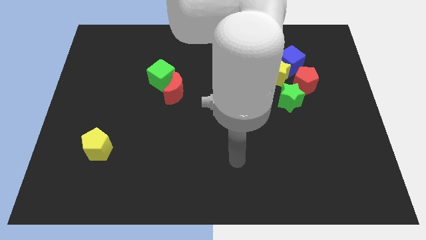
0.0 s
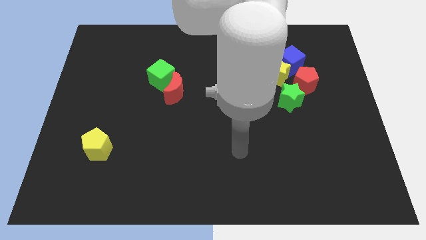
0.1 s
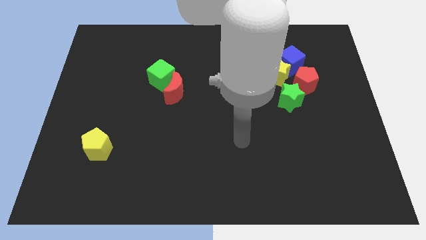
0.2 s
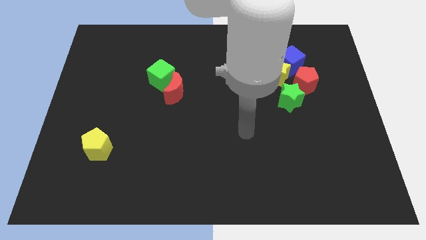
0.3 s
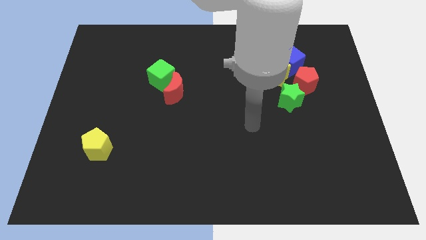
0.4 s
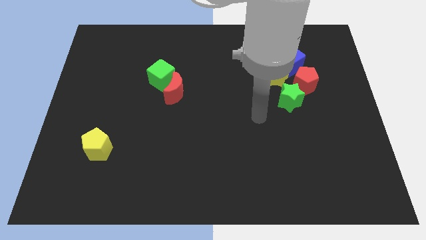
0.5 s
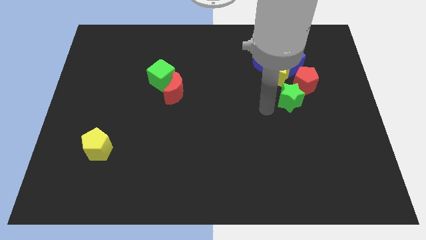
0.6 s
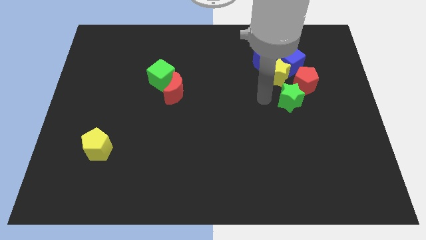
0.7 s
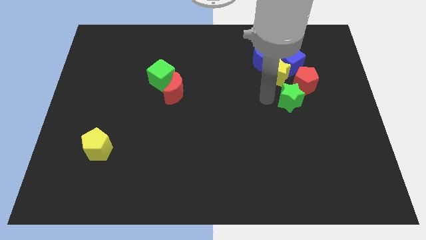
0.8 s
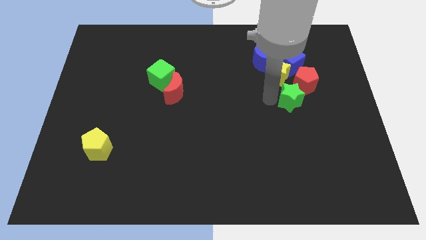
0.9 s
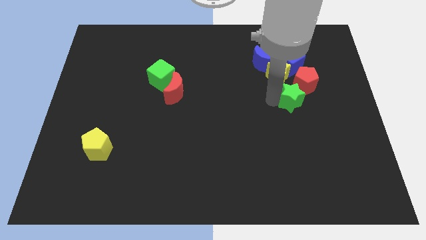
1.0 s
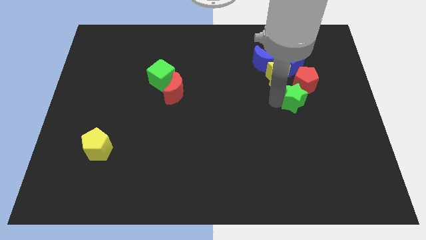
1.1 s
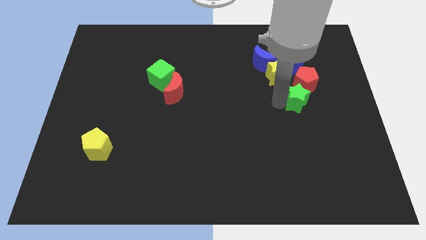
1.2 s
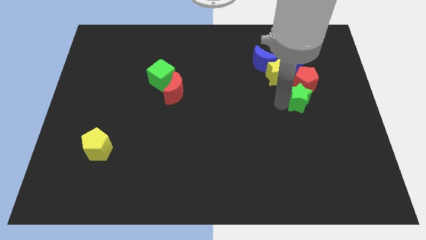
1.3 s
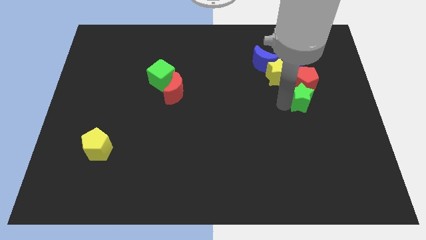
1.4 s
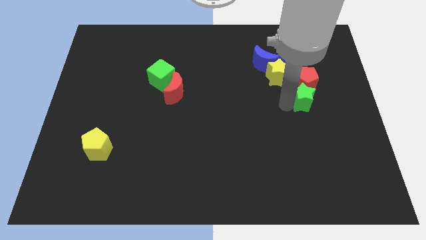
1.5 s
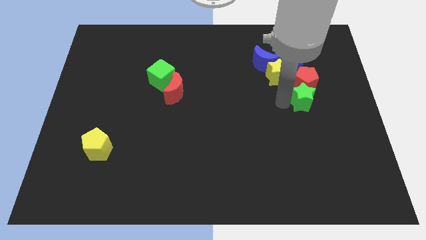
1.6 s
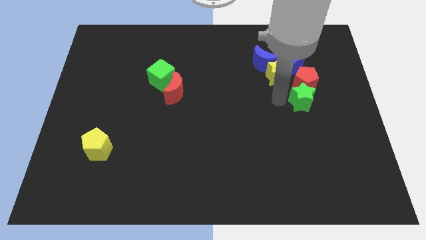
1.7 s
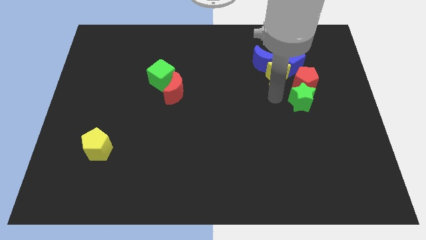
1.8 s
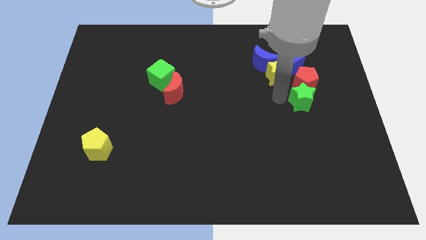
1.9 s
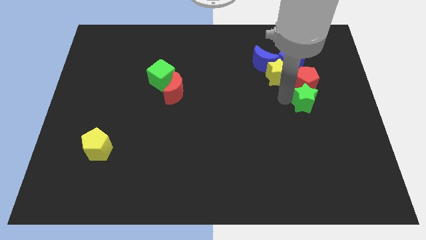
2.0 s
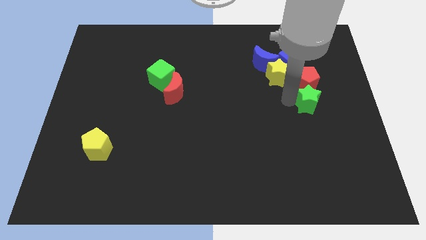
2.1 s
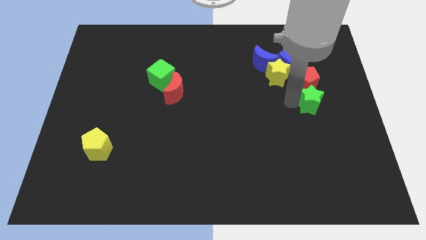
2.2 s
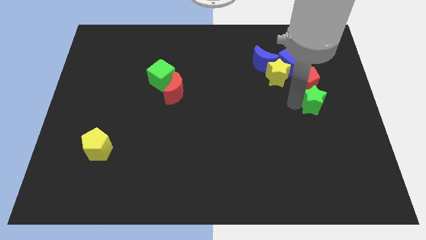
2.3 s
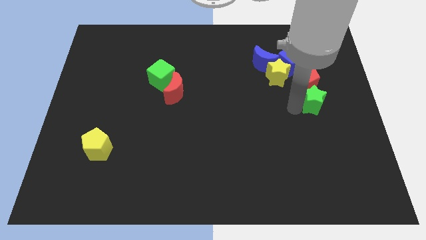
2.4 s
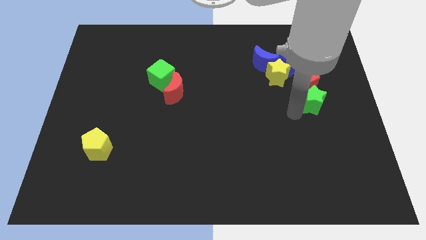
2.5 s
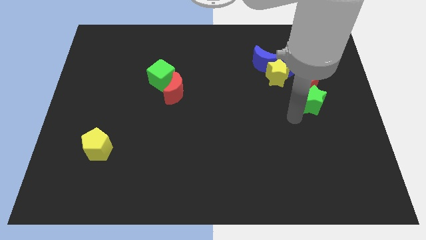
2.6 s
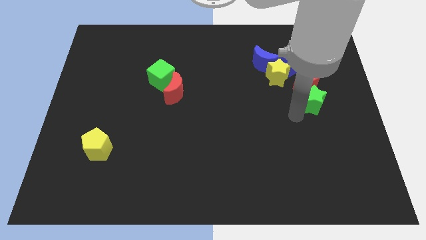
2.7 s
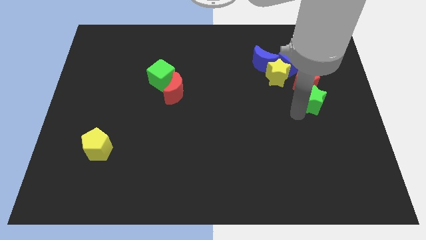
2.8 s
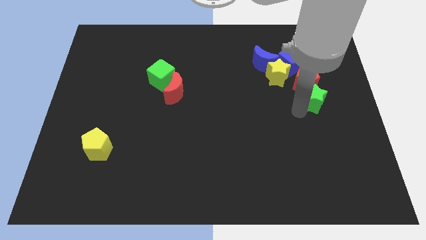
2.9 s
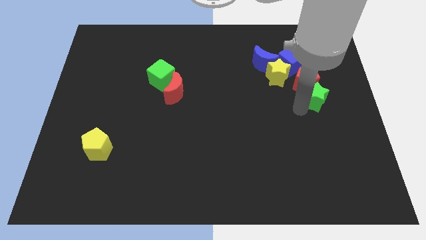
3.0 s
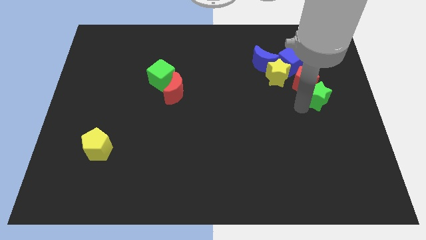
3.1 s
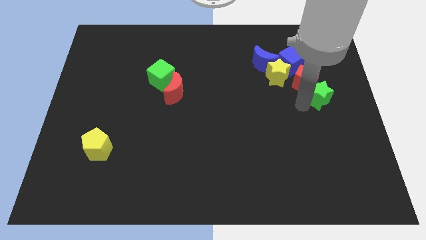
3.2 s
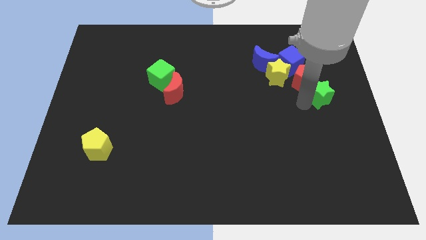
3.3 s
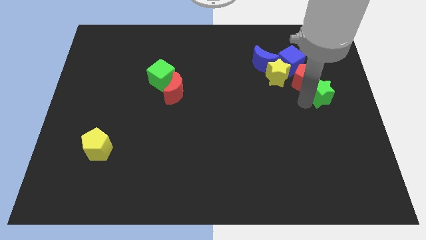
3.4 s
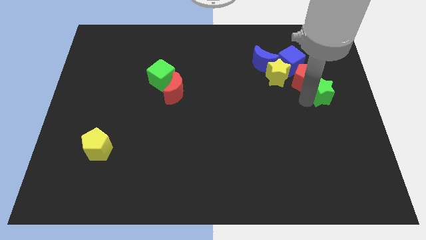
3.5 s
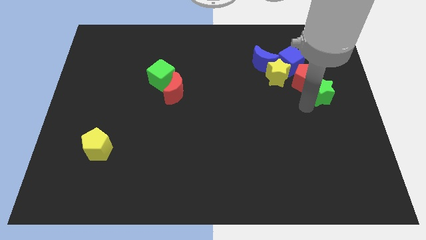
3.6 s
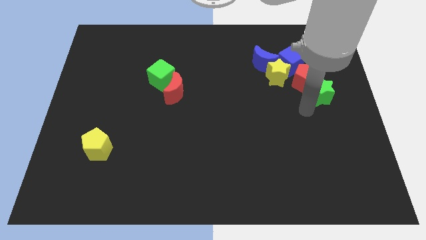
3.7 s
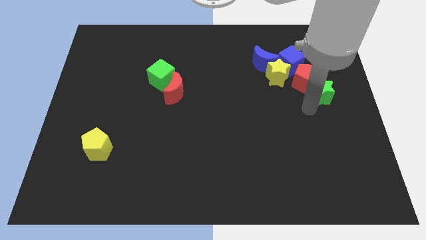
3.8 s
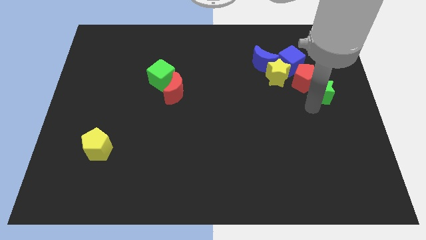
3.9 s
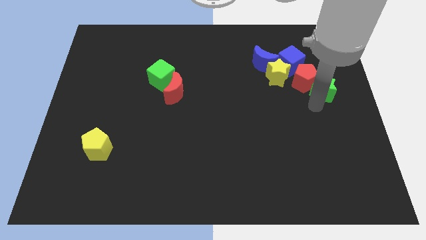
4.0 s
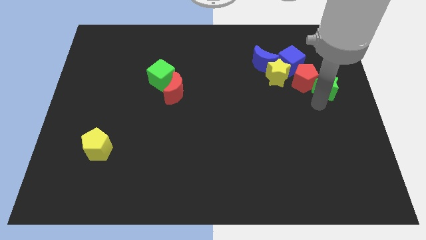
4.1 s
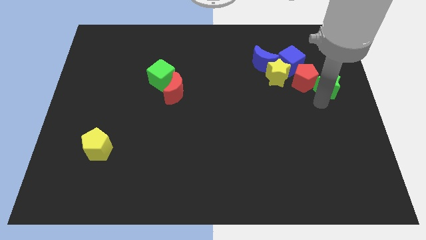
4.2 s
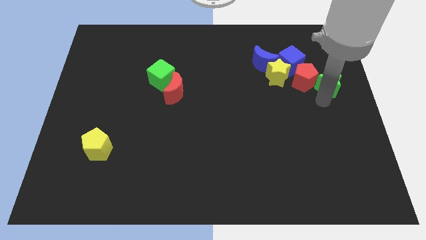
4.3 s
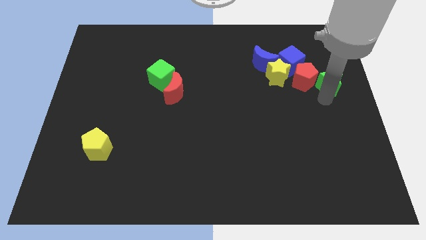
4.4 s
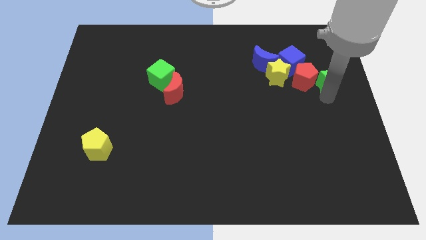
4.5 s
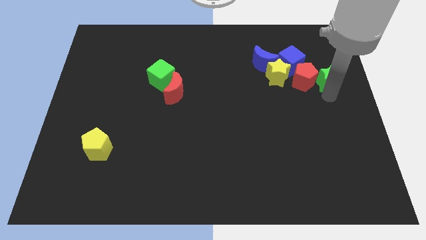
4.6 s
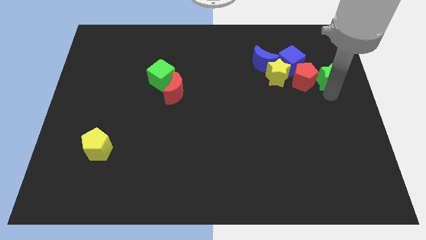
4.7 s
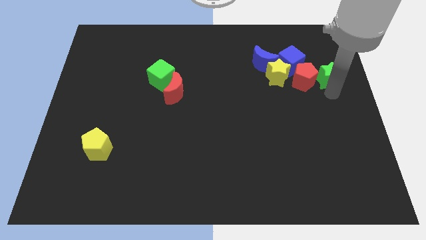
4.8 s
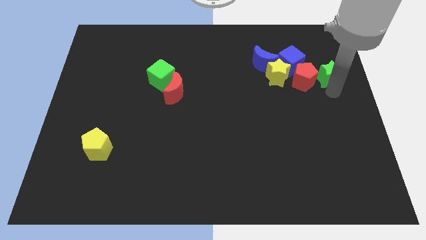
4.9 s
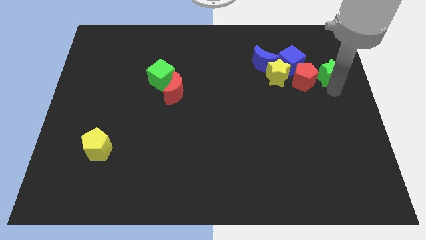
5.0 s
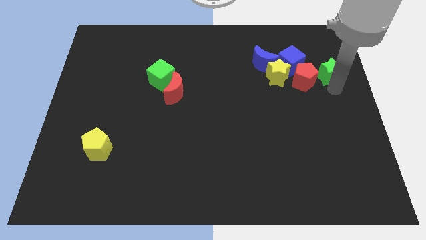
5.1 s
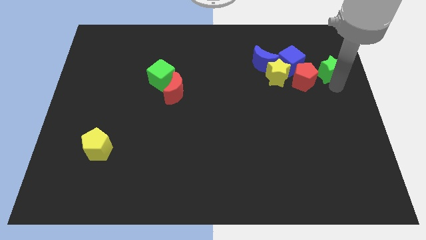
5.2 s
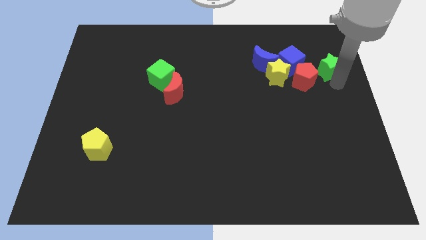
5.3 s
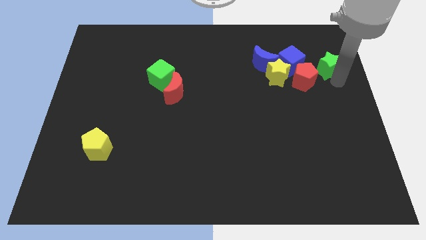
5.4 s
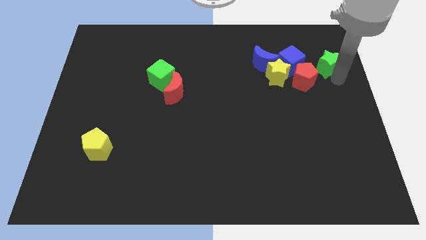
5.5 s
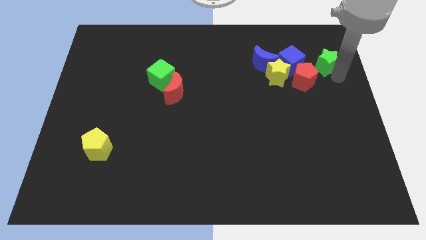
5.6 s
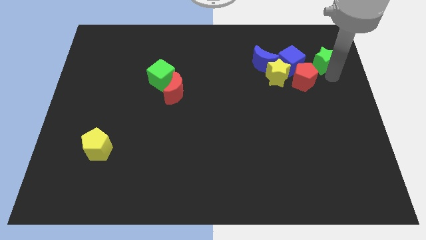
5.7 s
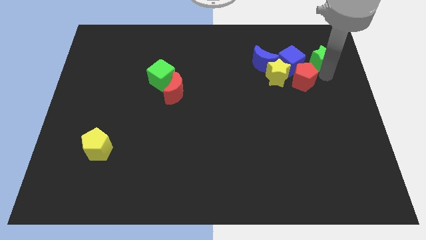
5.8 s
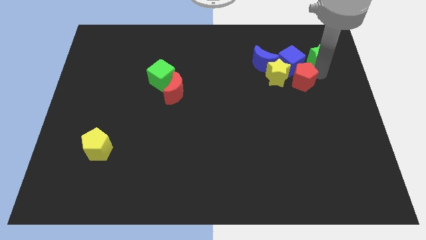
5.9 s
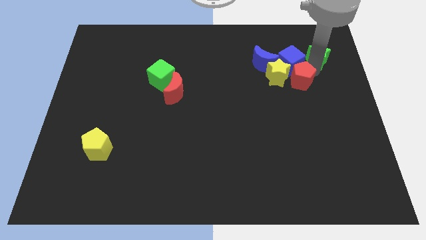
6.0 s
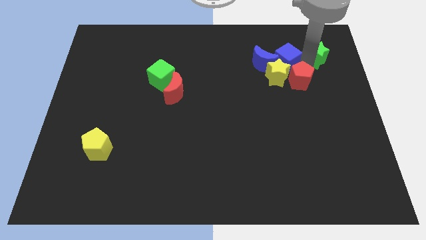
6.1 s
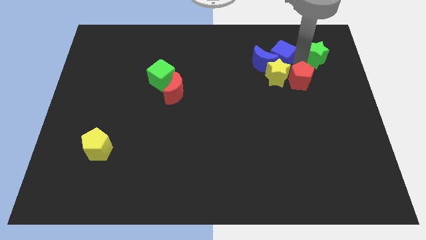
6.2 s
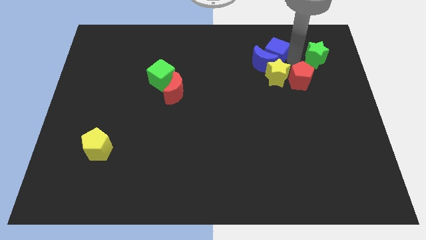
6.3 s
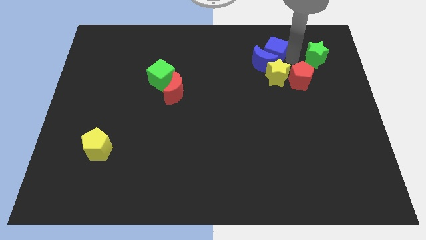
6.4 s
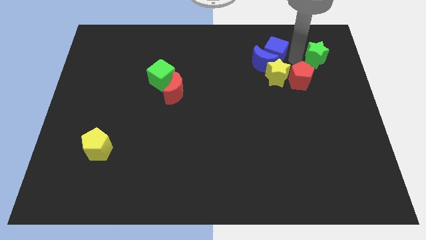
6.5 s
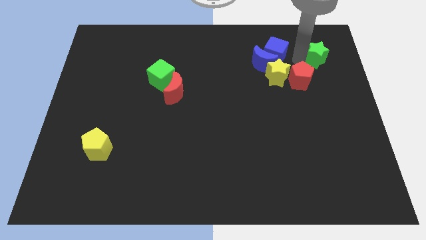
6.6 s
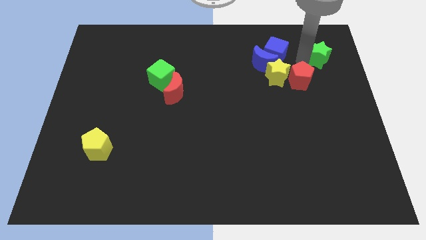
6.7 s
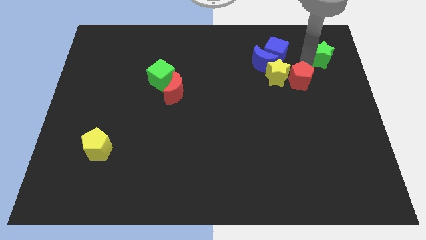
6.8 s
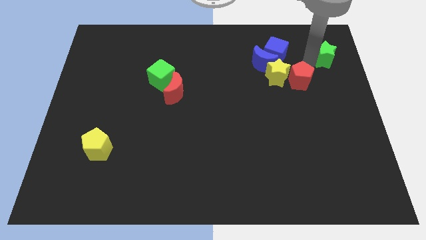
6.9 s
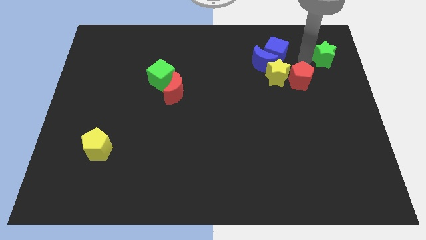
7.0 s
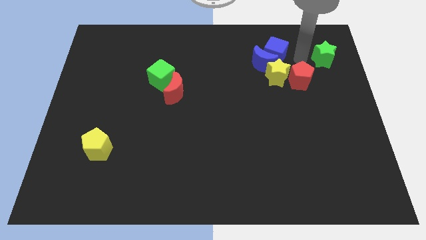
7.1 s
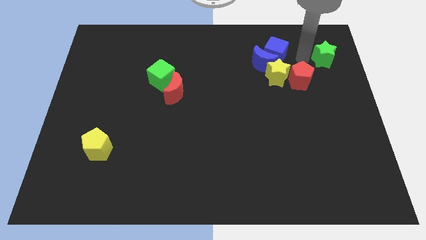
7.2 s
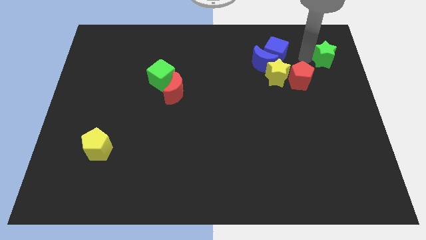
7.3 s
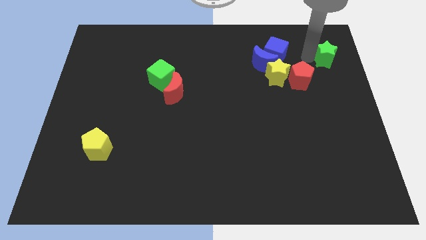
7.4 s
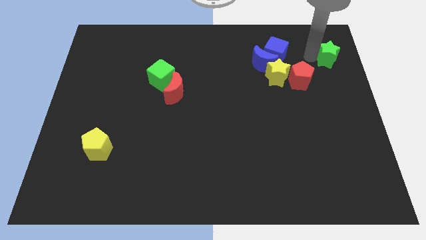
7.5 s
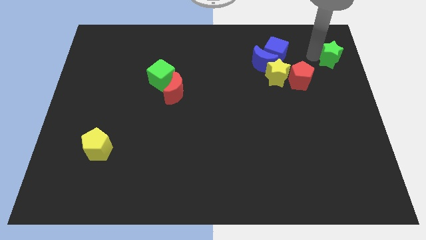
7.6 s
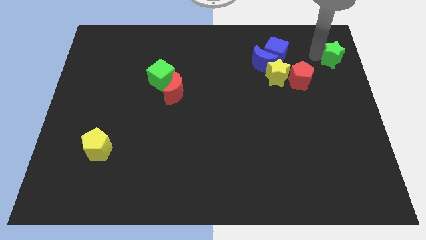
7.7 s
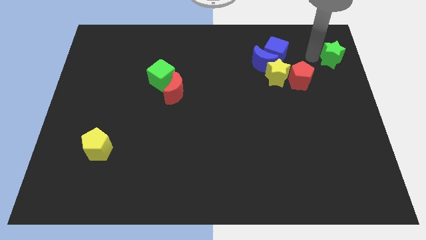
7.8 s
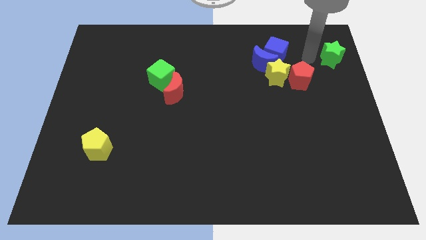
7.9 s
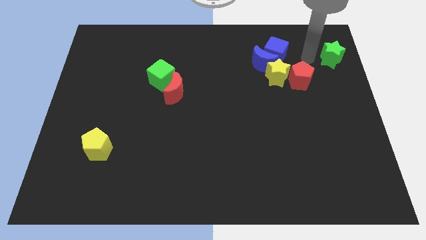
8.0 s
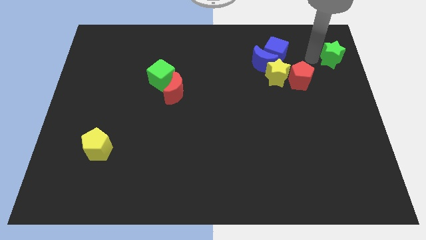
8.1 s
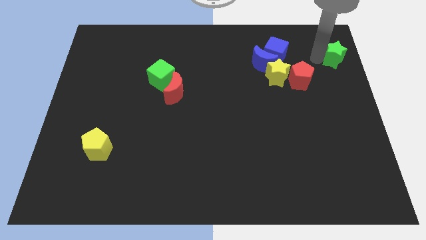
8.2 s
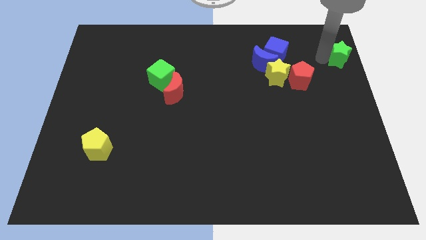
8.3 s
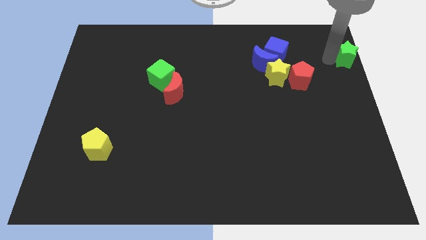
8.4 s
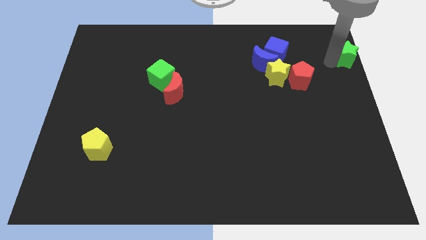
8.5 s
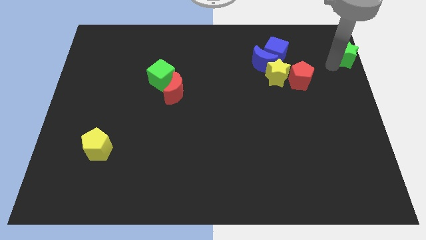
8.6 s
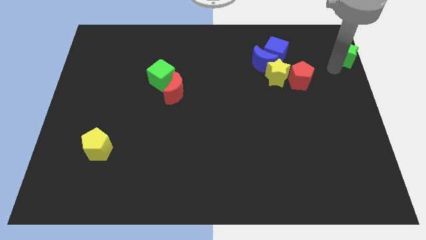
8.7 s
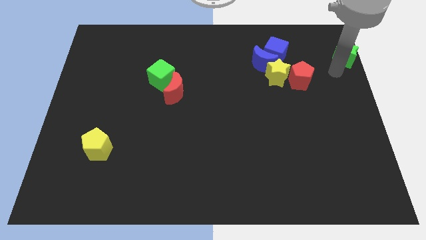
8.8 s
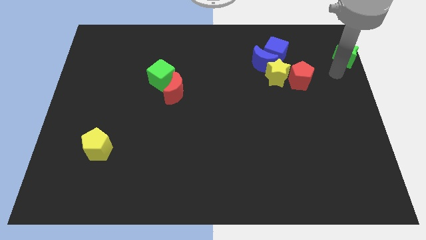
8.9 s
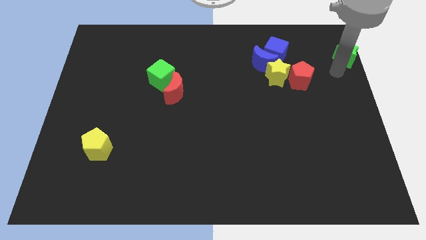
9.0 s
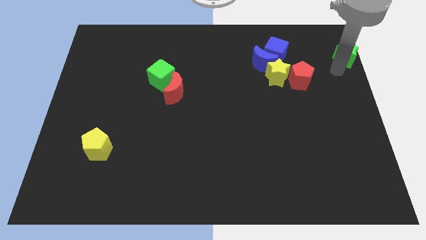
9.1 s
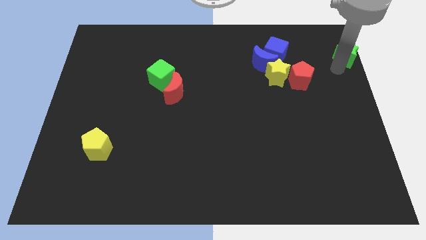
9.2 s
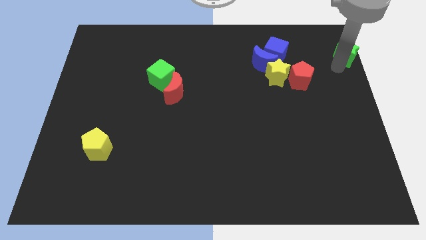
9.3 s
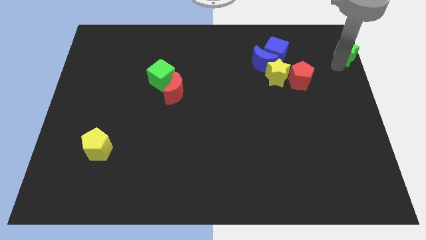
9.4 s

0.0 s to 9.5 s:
move the green star to the top right of the board
